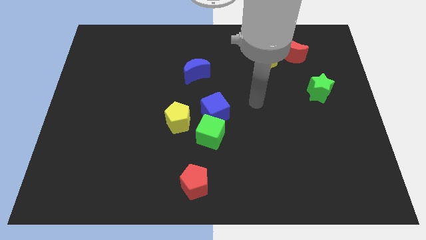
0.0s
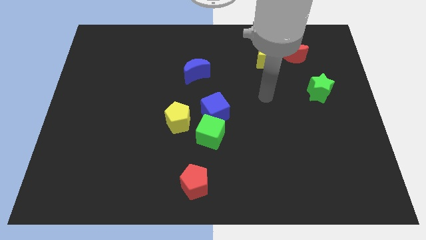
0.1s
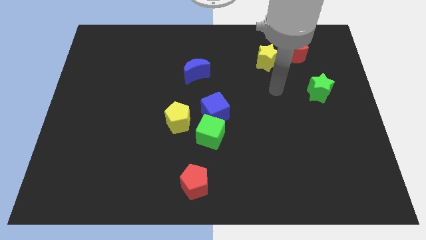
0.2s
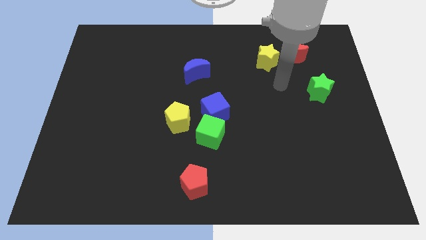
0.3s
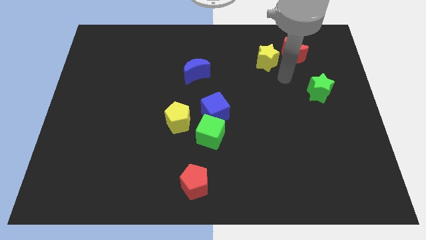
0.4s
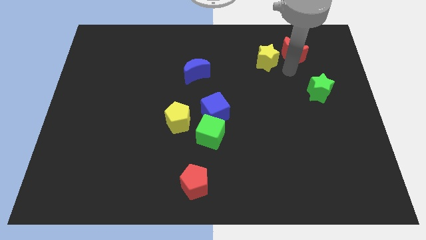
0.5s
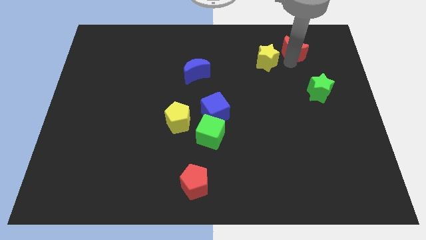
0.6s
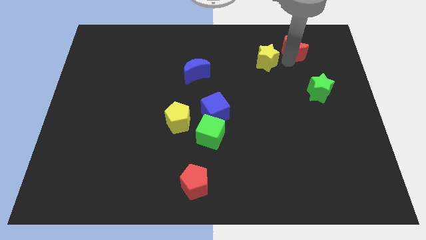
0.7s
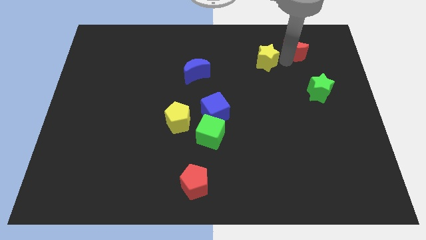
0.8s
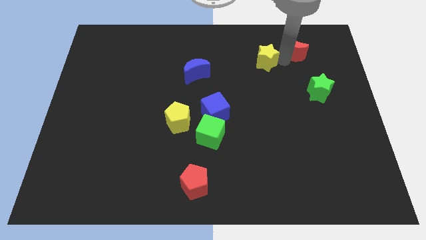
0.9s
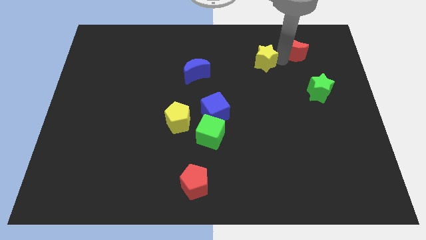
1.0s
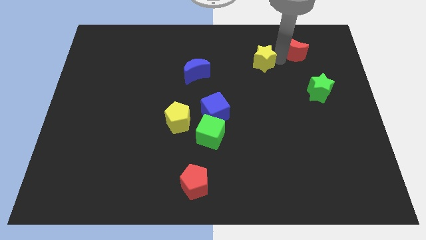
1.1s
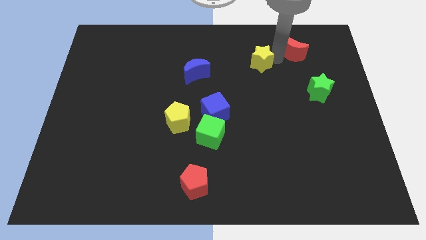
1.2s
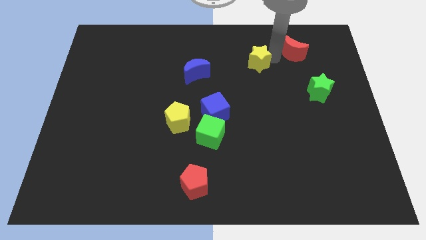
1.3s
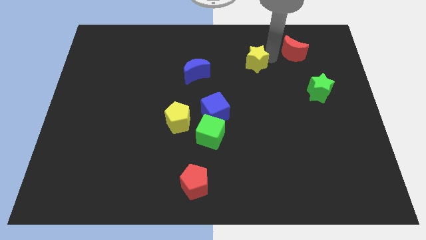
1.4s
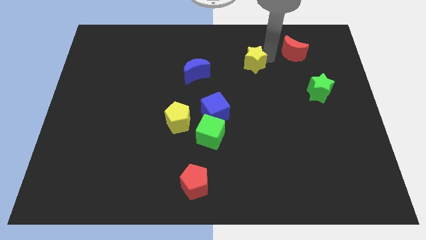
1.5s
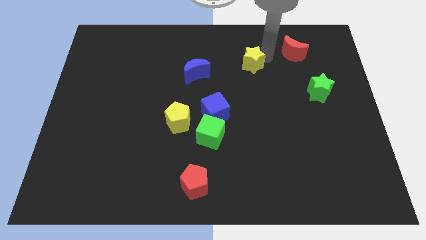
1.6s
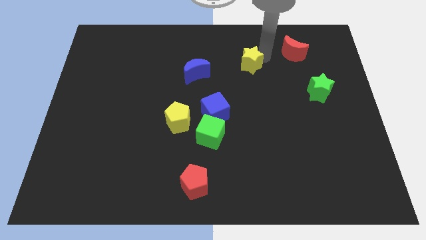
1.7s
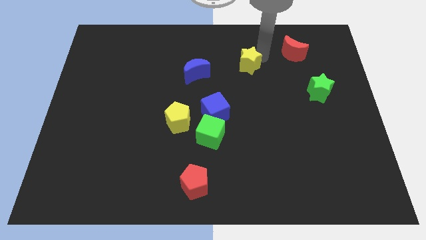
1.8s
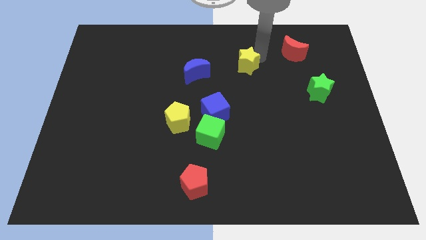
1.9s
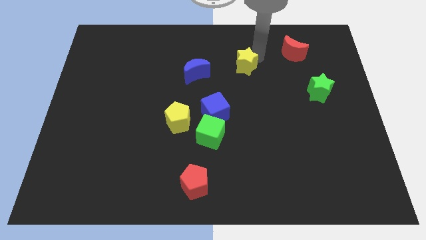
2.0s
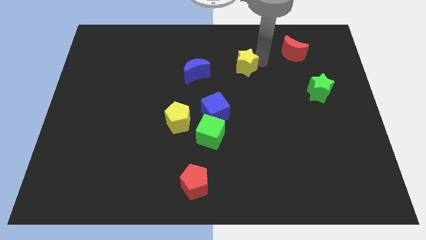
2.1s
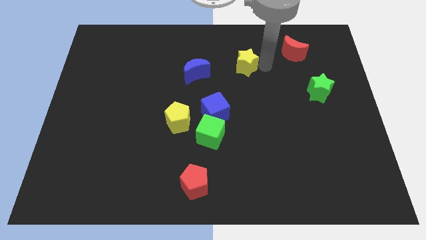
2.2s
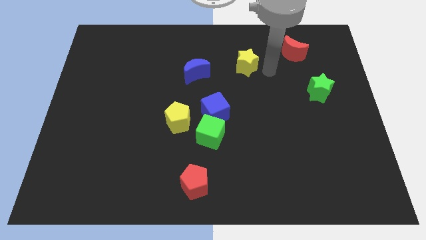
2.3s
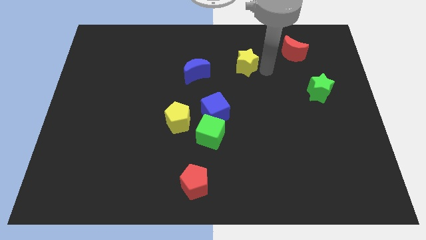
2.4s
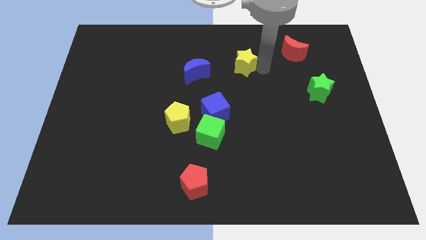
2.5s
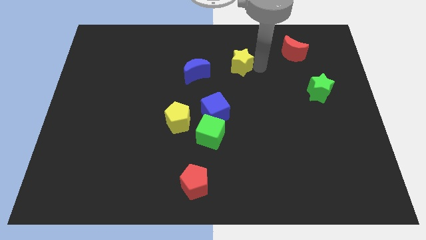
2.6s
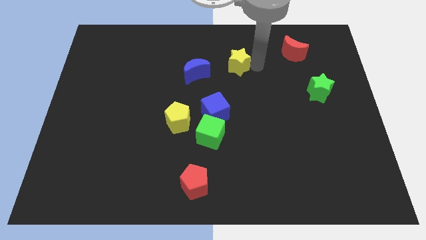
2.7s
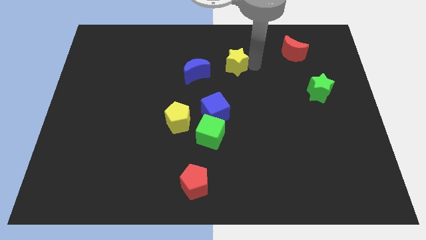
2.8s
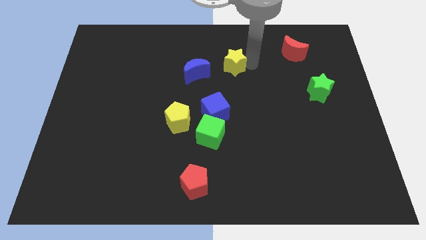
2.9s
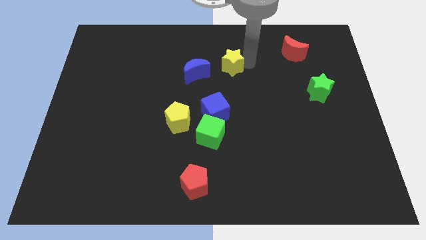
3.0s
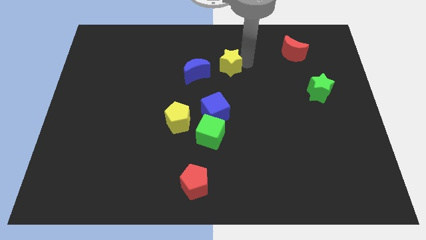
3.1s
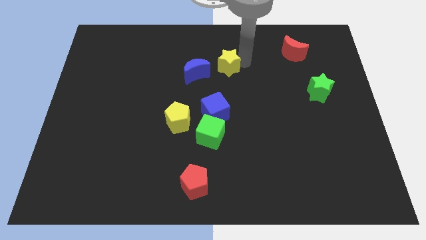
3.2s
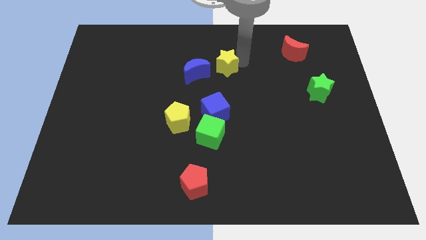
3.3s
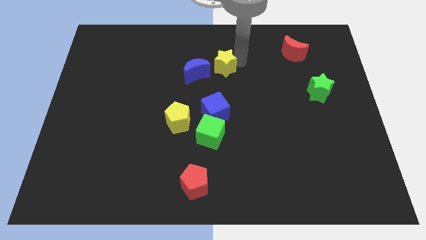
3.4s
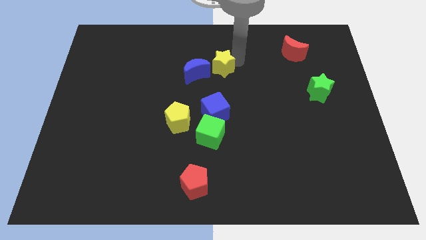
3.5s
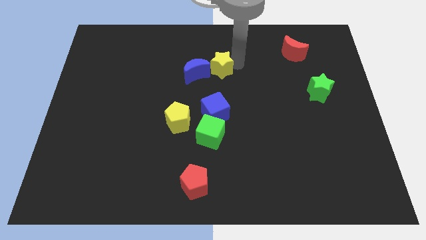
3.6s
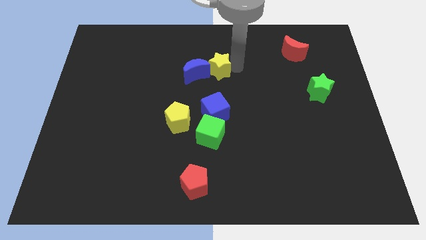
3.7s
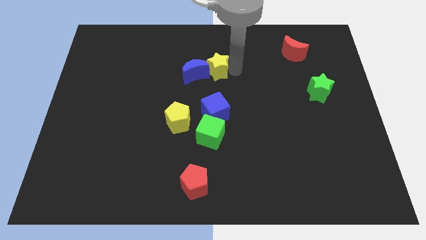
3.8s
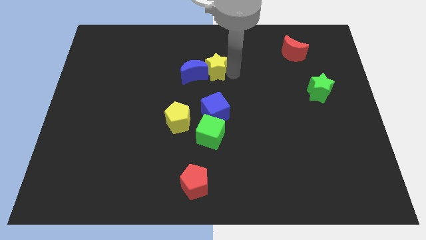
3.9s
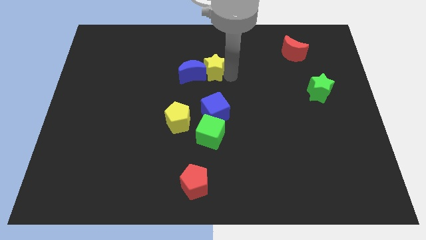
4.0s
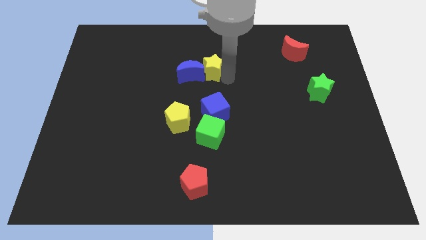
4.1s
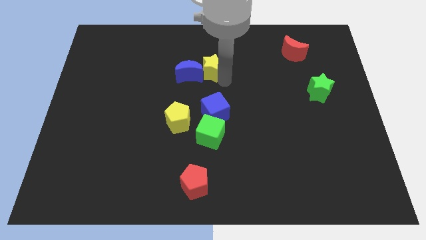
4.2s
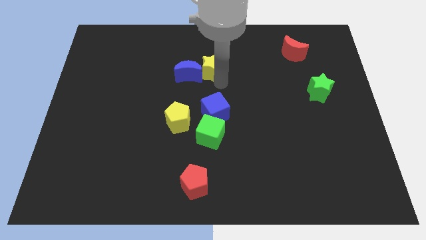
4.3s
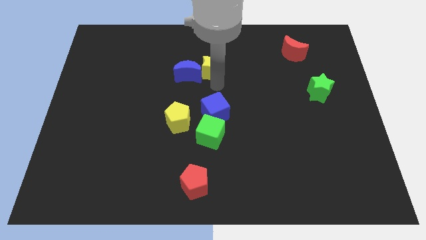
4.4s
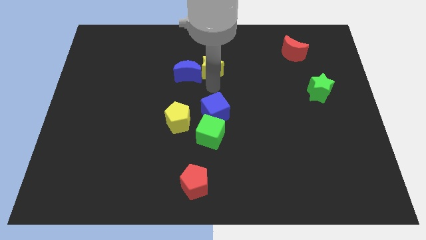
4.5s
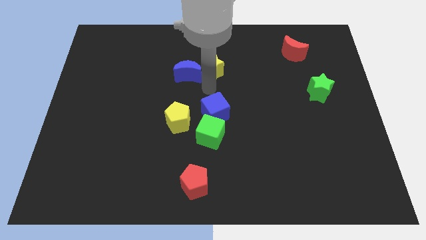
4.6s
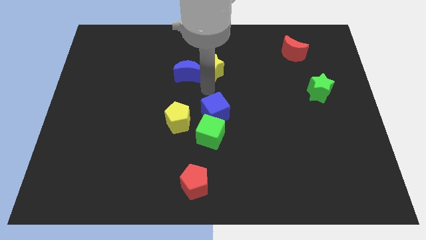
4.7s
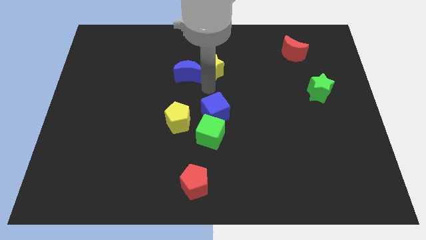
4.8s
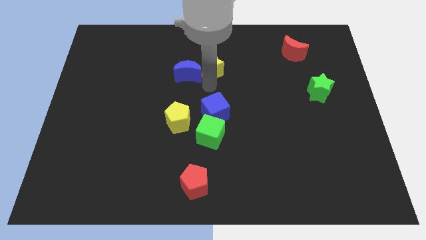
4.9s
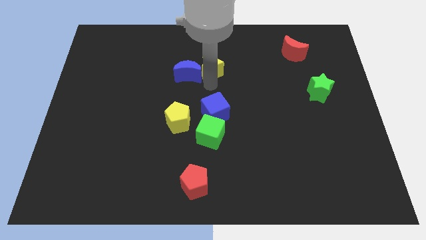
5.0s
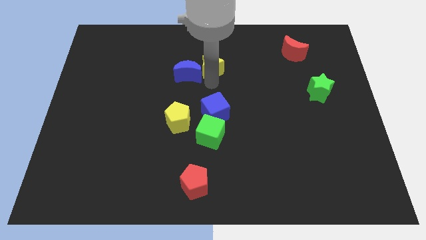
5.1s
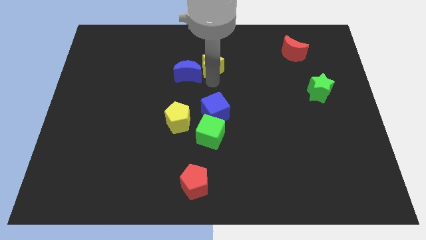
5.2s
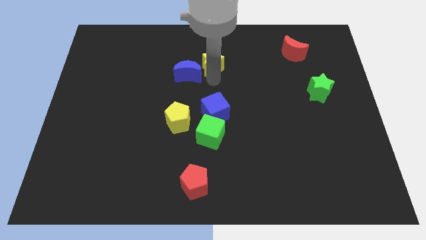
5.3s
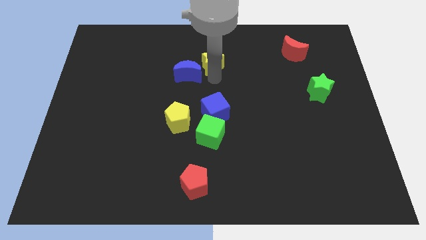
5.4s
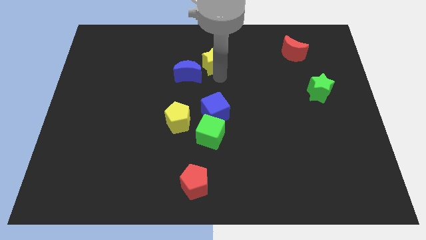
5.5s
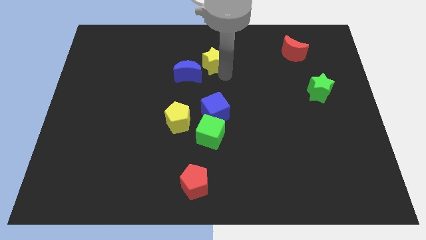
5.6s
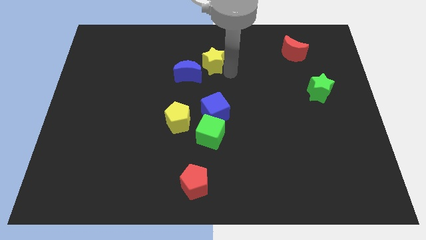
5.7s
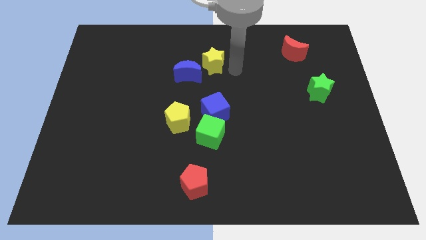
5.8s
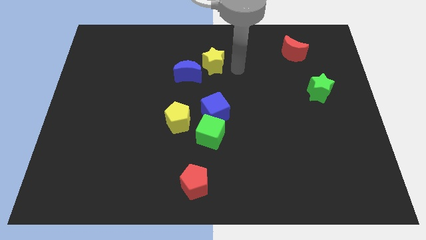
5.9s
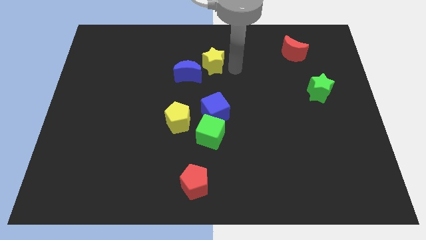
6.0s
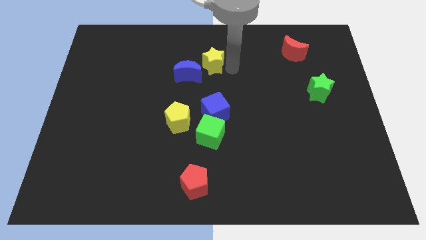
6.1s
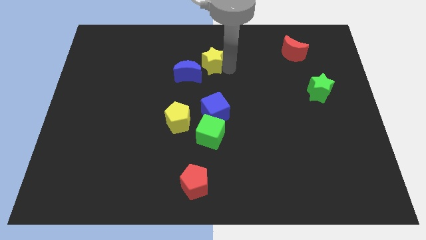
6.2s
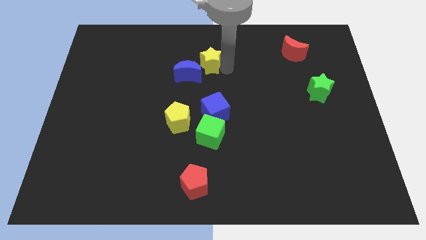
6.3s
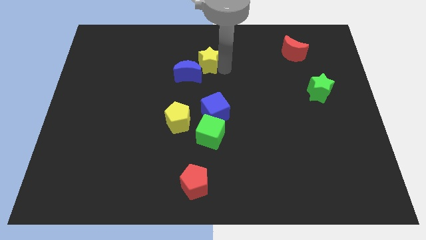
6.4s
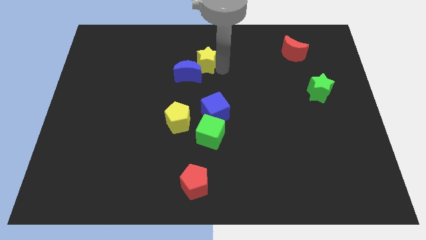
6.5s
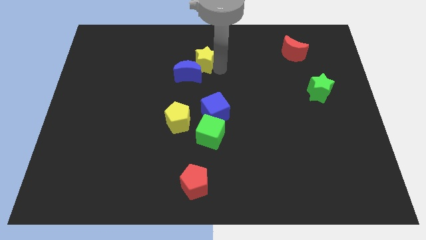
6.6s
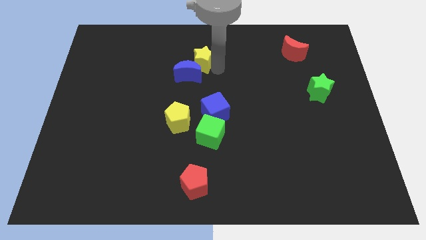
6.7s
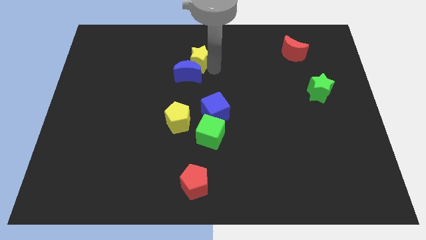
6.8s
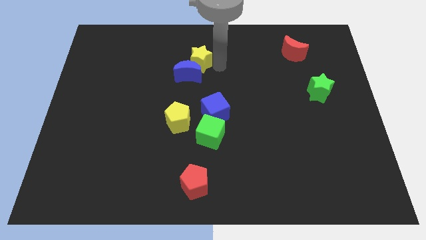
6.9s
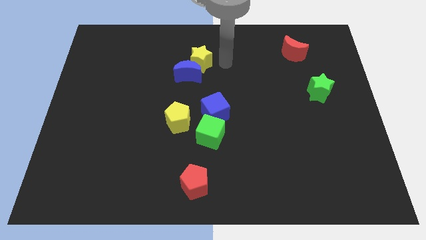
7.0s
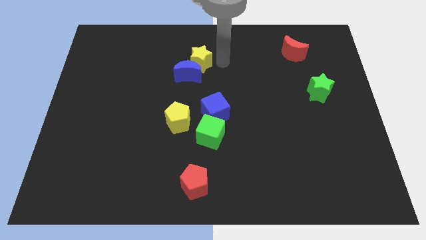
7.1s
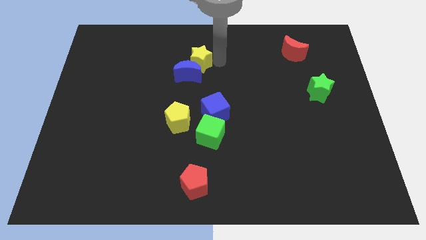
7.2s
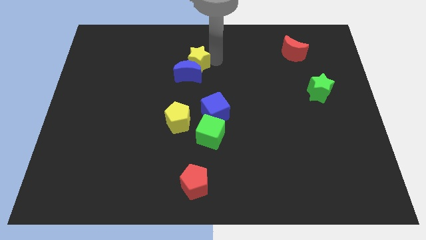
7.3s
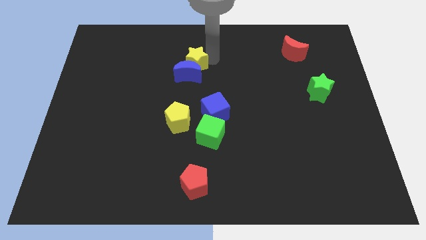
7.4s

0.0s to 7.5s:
push the yellow star to the top left side of the blue moon
